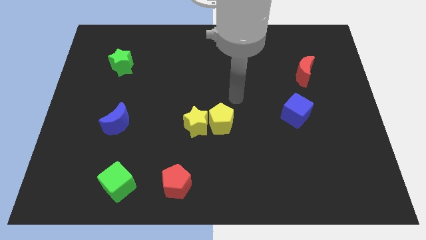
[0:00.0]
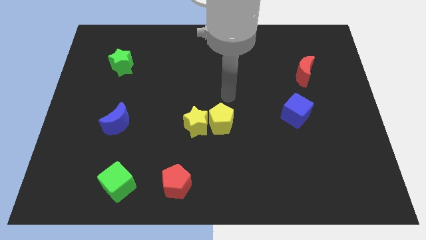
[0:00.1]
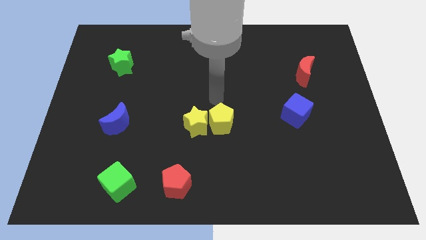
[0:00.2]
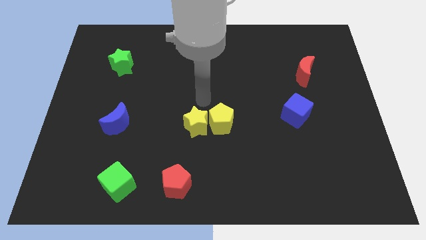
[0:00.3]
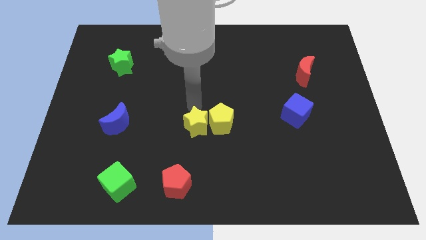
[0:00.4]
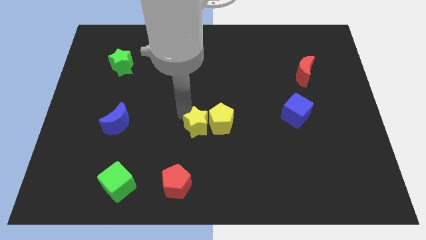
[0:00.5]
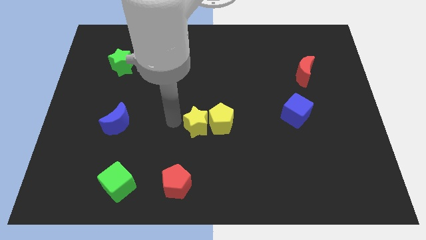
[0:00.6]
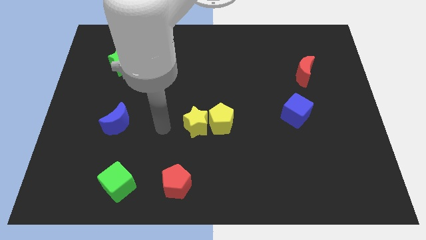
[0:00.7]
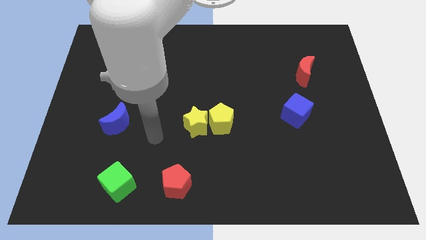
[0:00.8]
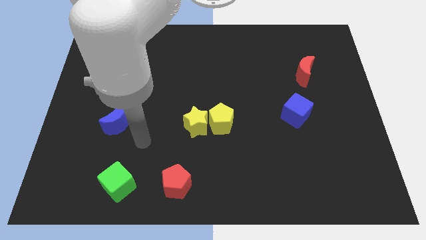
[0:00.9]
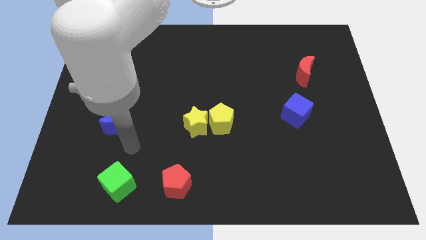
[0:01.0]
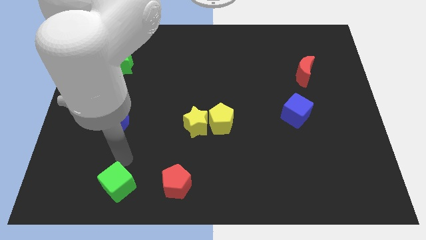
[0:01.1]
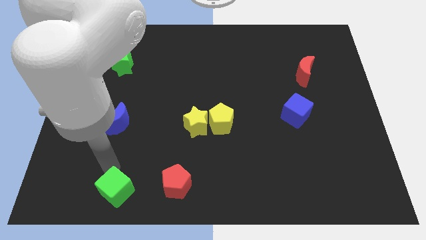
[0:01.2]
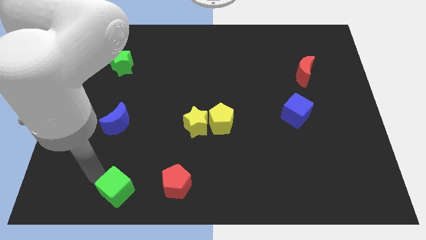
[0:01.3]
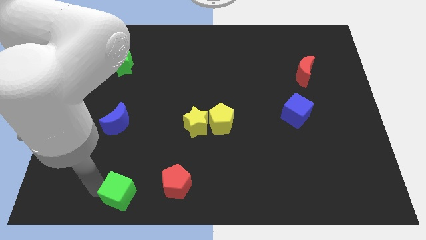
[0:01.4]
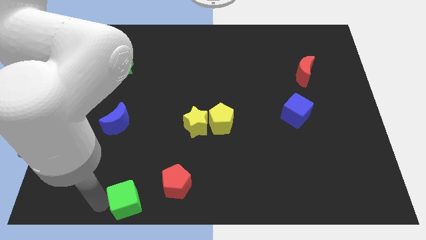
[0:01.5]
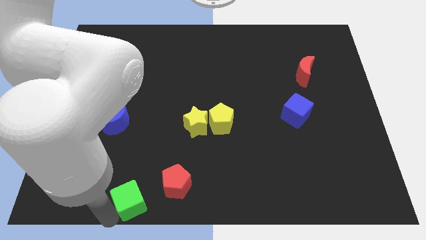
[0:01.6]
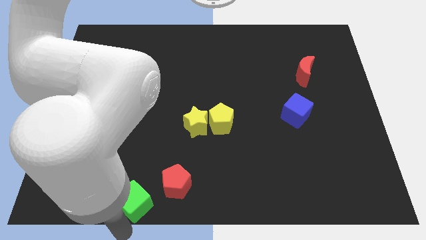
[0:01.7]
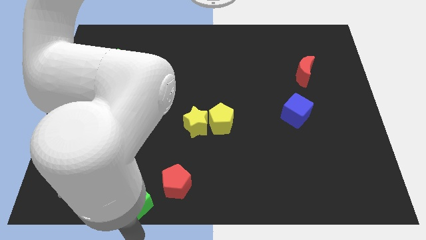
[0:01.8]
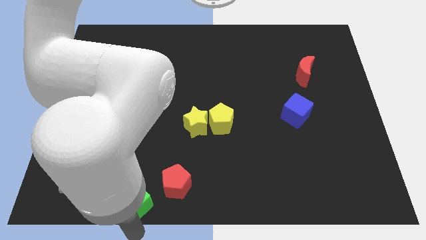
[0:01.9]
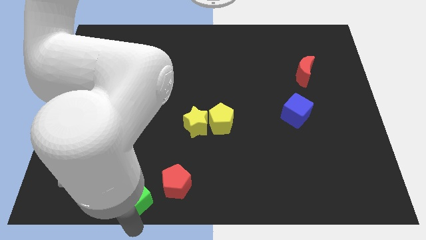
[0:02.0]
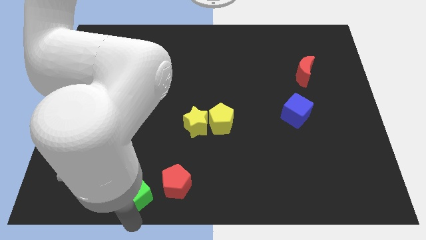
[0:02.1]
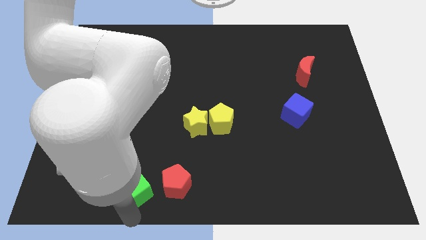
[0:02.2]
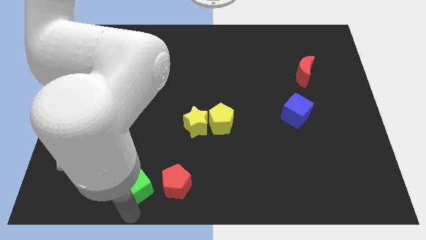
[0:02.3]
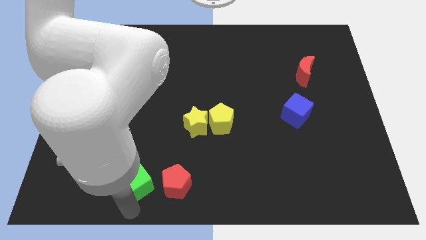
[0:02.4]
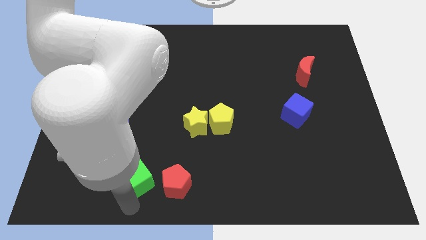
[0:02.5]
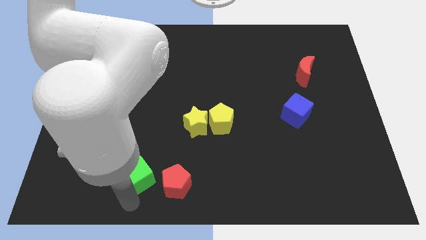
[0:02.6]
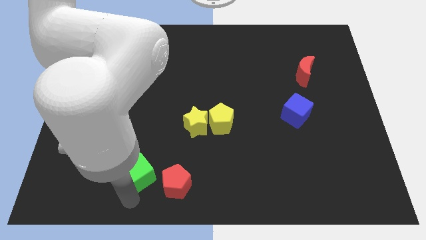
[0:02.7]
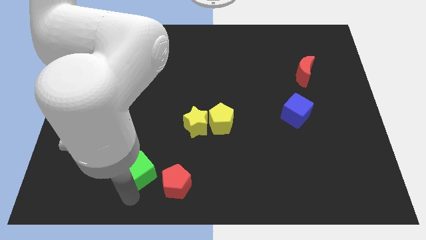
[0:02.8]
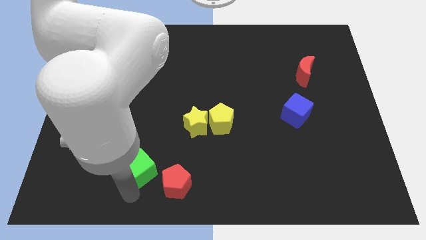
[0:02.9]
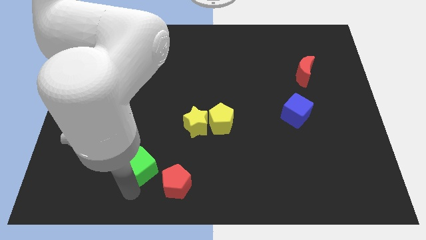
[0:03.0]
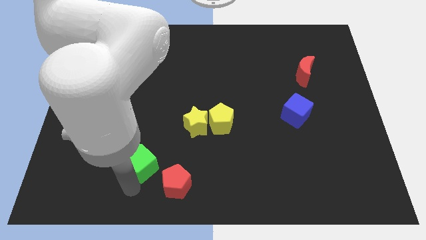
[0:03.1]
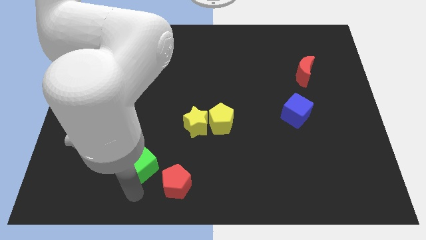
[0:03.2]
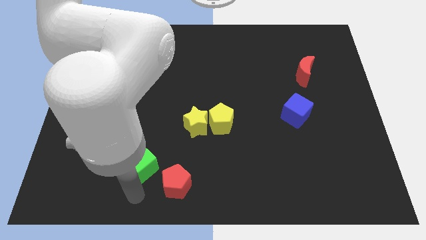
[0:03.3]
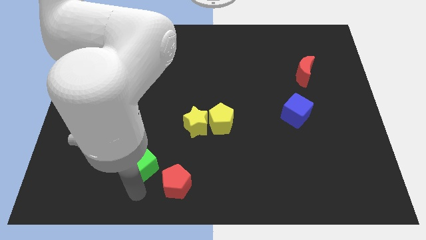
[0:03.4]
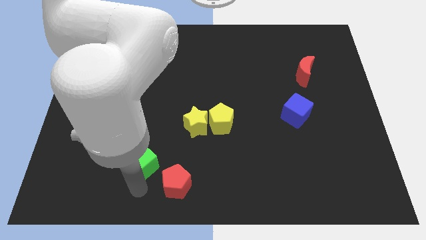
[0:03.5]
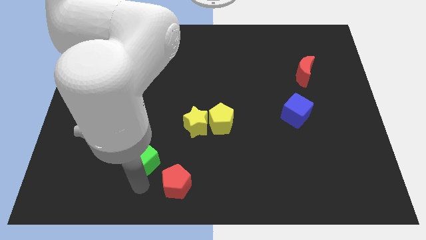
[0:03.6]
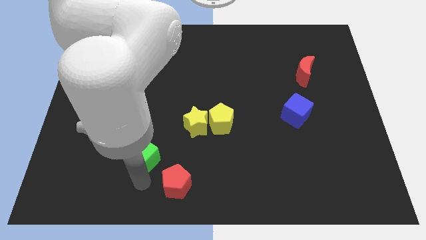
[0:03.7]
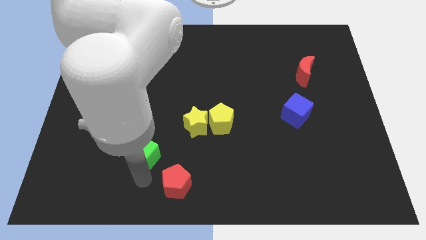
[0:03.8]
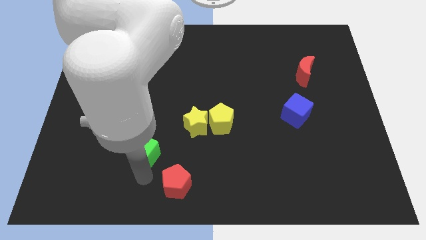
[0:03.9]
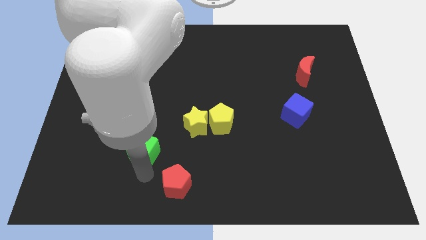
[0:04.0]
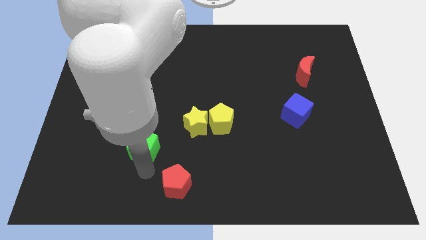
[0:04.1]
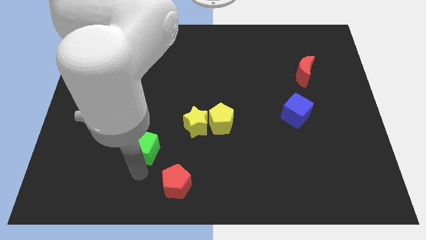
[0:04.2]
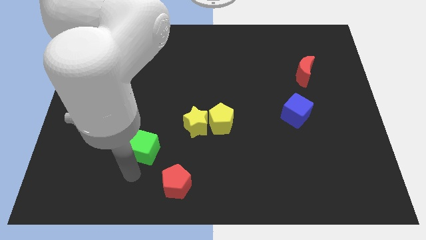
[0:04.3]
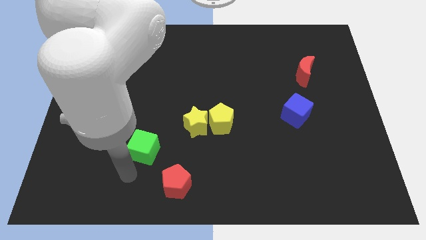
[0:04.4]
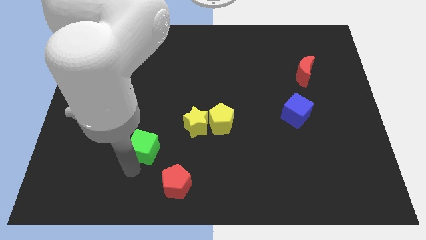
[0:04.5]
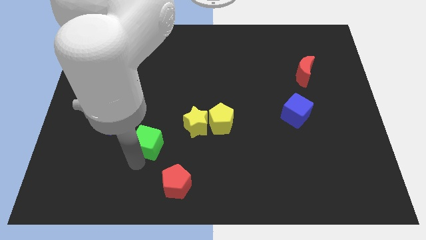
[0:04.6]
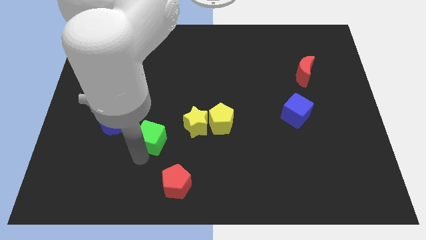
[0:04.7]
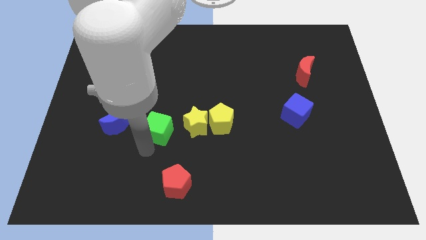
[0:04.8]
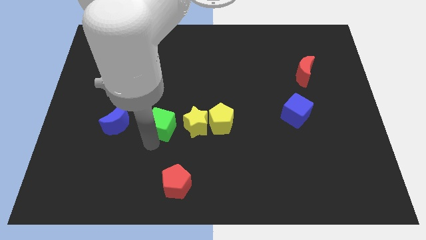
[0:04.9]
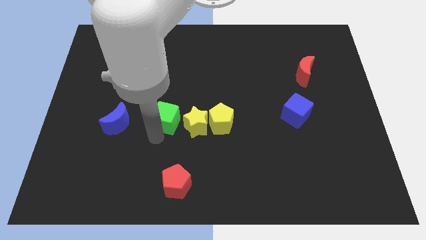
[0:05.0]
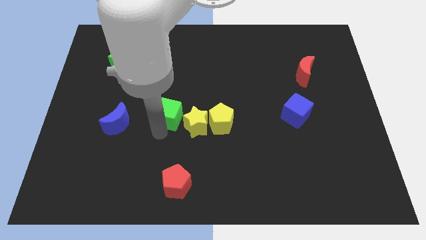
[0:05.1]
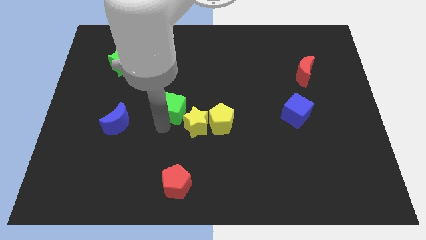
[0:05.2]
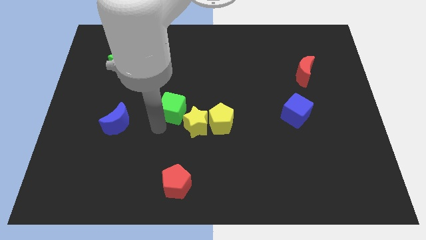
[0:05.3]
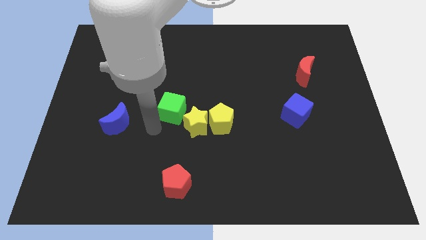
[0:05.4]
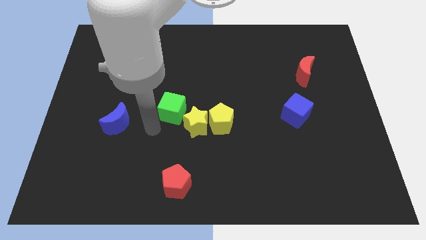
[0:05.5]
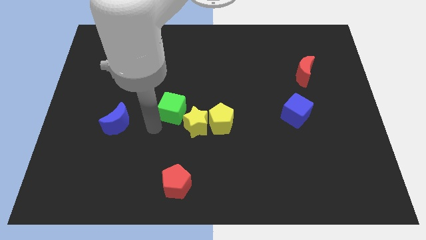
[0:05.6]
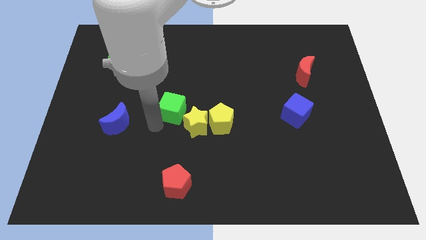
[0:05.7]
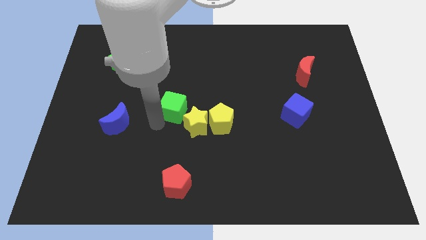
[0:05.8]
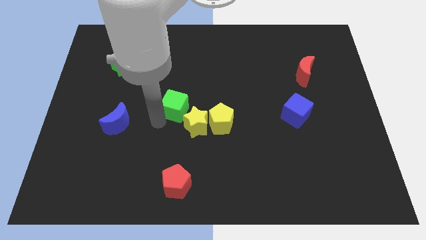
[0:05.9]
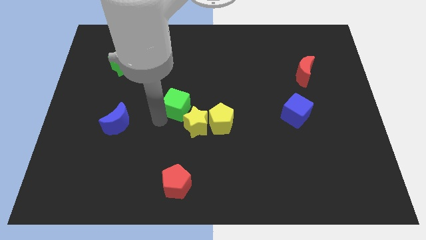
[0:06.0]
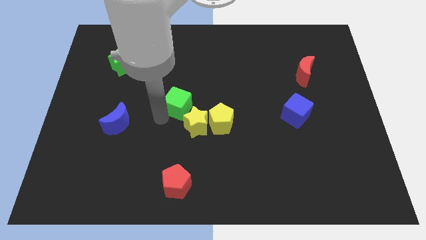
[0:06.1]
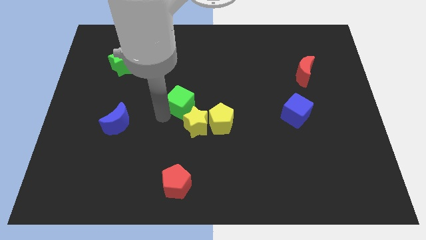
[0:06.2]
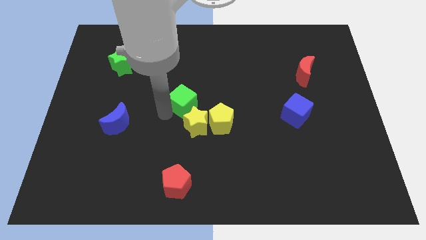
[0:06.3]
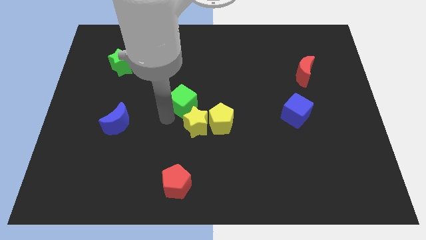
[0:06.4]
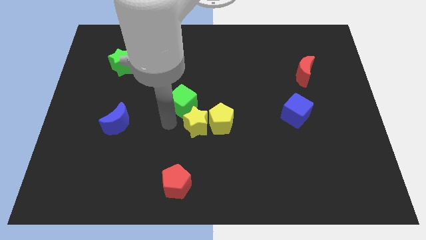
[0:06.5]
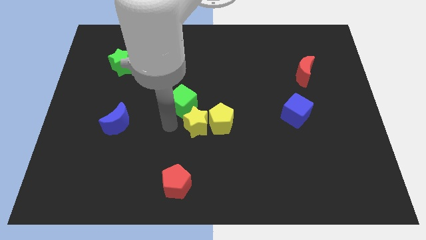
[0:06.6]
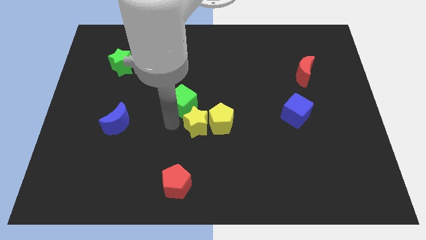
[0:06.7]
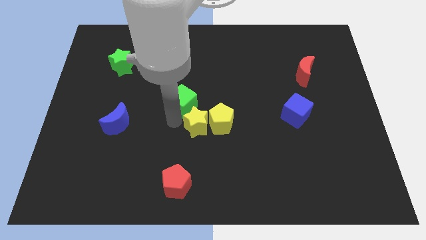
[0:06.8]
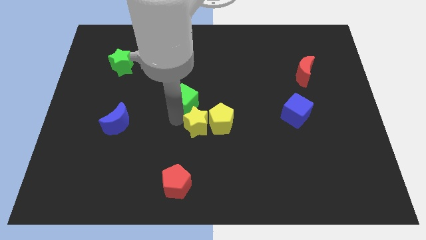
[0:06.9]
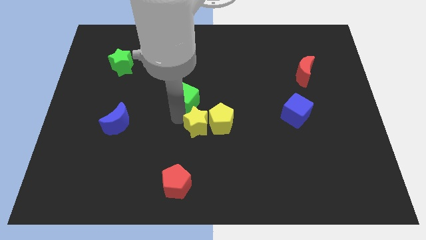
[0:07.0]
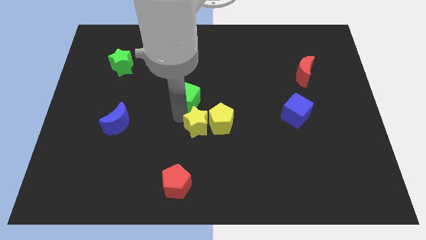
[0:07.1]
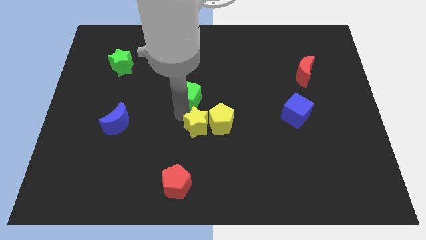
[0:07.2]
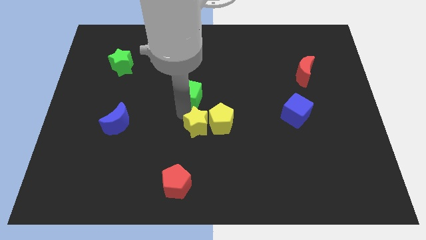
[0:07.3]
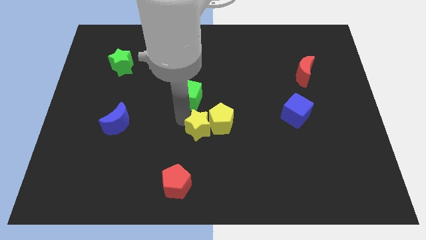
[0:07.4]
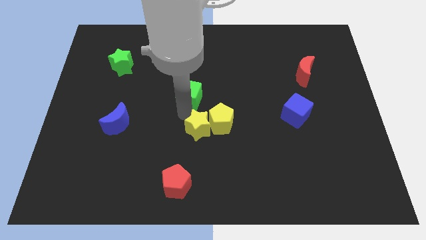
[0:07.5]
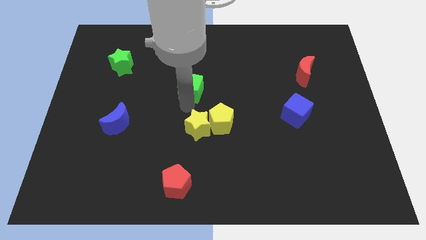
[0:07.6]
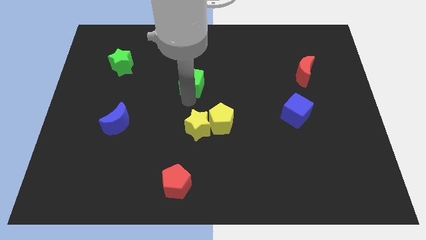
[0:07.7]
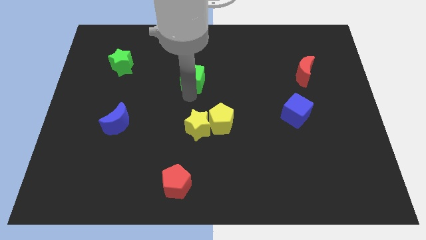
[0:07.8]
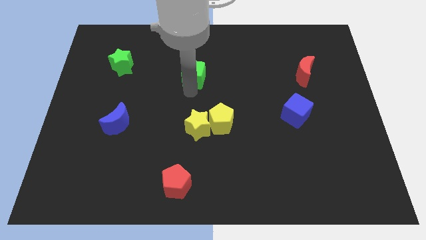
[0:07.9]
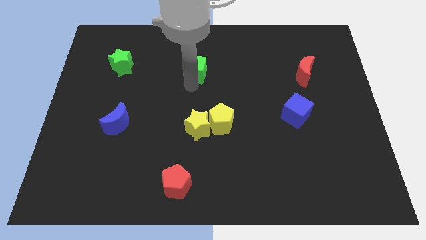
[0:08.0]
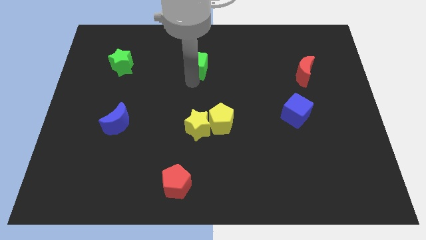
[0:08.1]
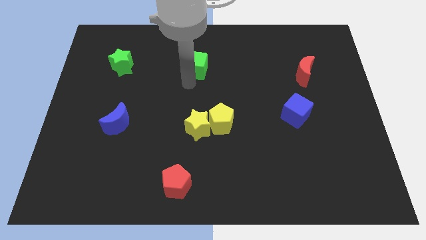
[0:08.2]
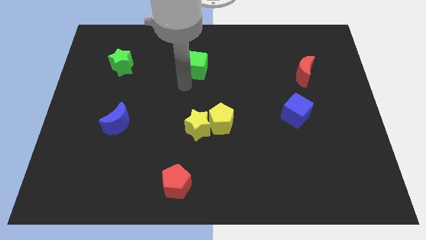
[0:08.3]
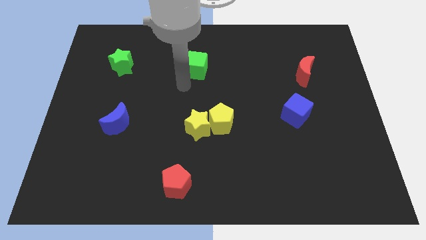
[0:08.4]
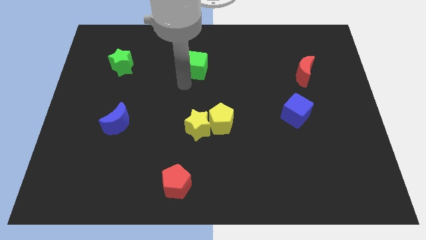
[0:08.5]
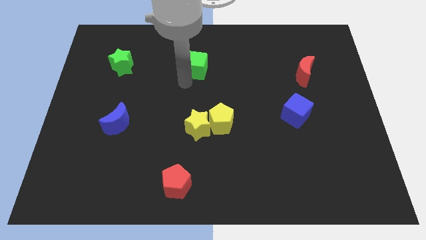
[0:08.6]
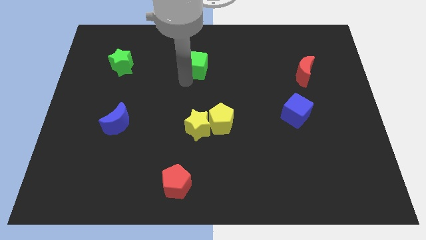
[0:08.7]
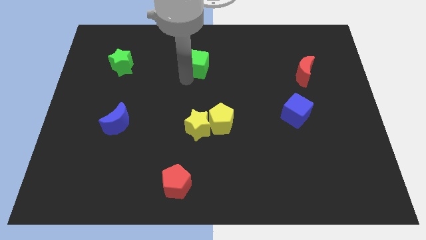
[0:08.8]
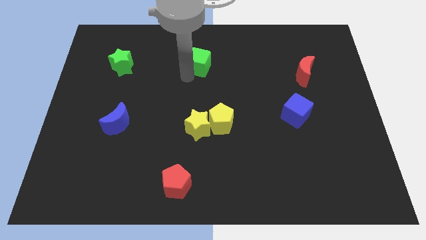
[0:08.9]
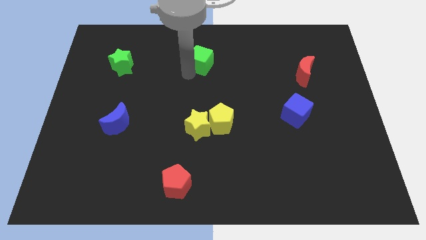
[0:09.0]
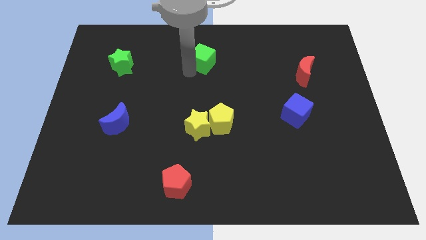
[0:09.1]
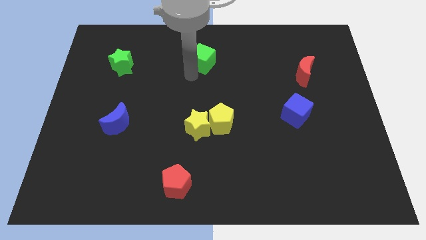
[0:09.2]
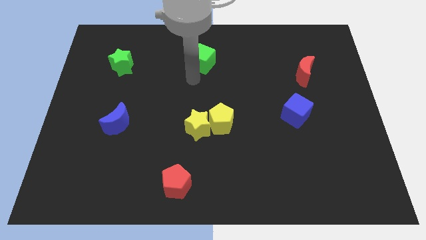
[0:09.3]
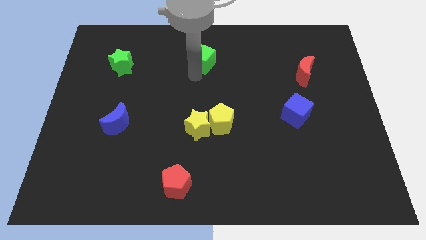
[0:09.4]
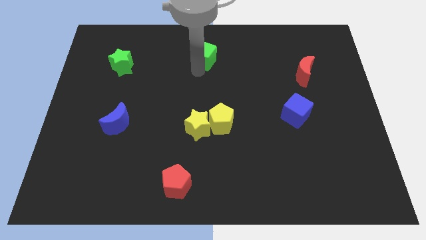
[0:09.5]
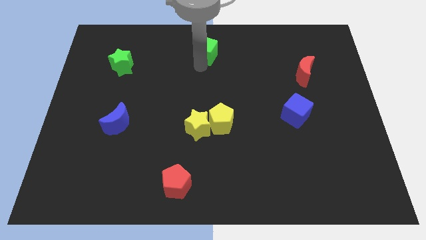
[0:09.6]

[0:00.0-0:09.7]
move the green cube to the top side
